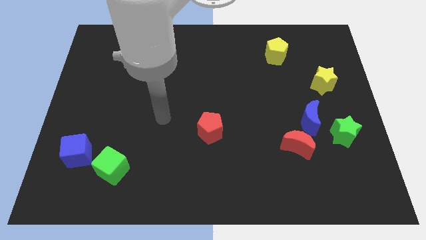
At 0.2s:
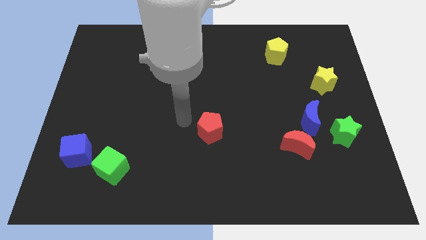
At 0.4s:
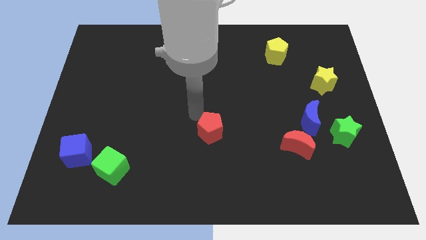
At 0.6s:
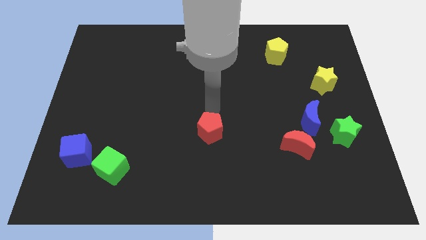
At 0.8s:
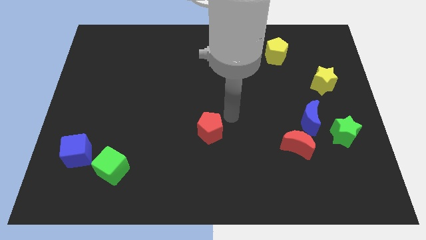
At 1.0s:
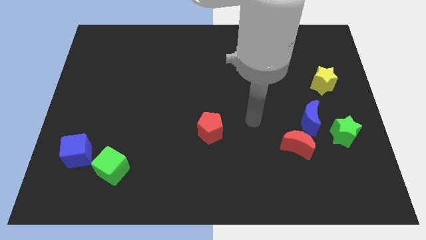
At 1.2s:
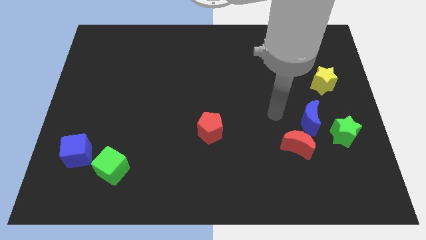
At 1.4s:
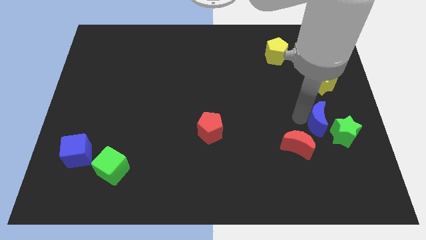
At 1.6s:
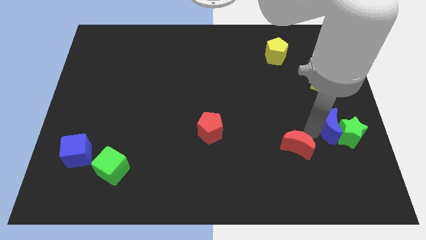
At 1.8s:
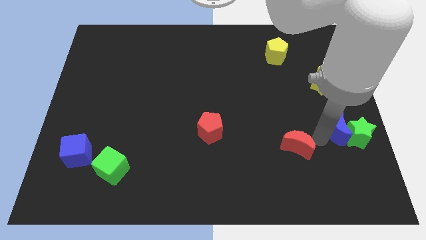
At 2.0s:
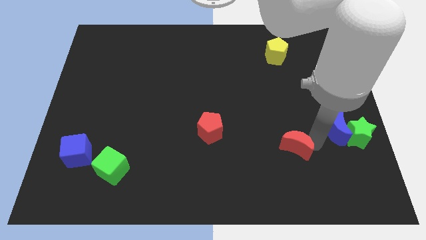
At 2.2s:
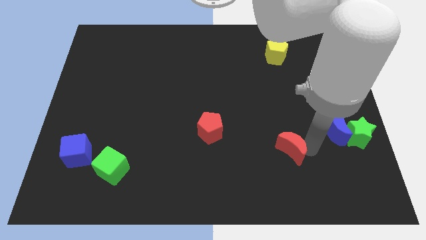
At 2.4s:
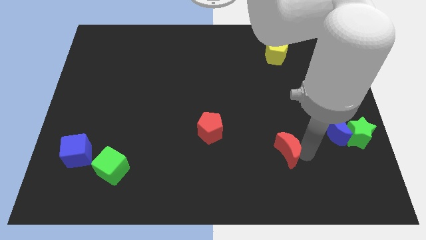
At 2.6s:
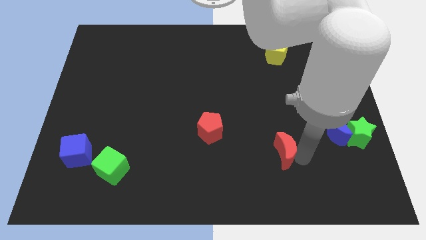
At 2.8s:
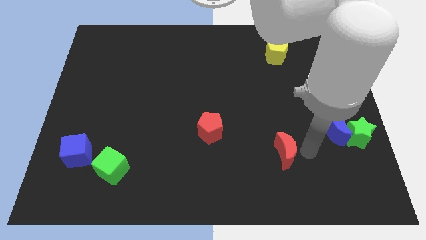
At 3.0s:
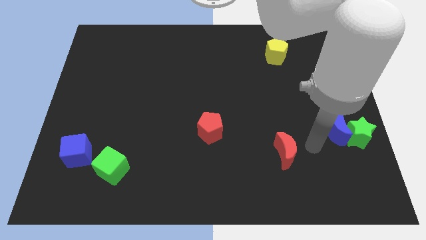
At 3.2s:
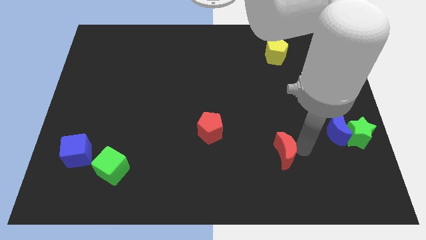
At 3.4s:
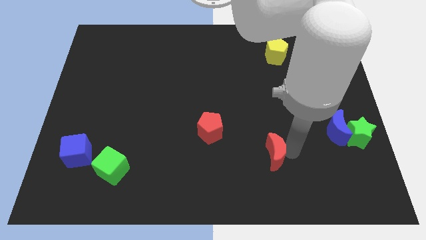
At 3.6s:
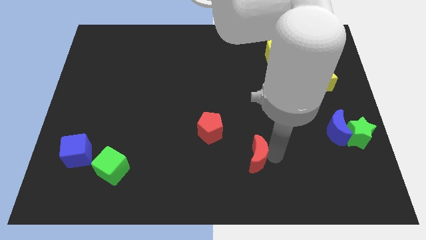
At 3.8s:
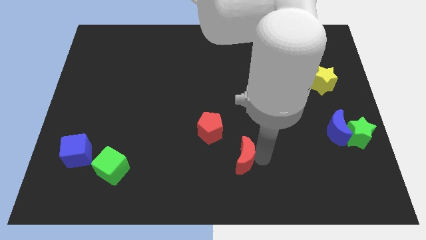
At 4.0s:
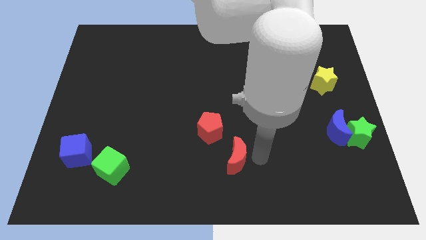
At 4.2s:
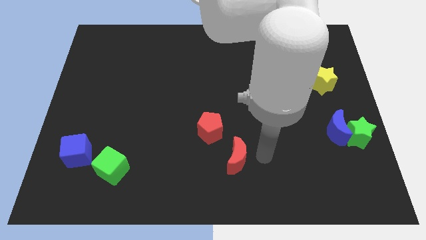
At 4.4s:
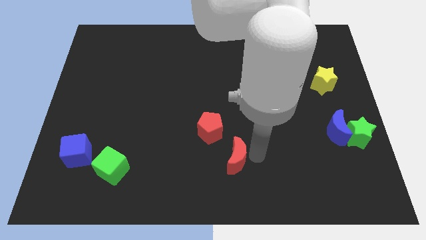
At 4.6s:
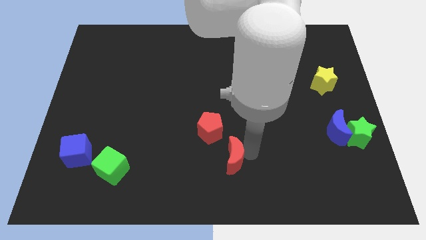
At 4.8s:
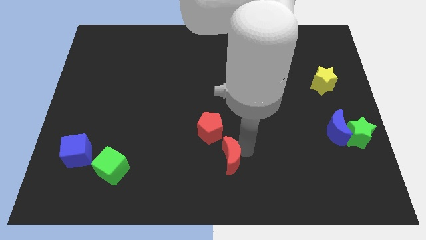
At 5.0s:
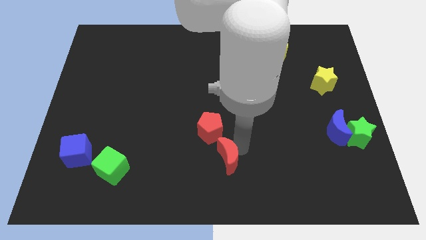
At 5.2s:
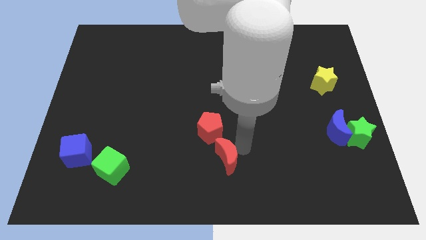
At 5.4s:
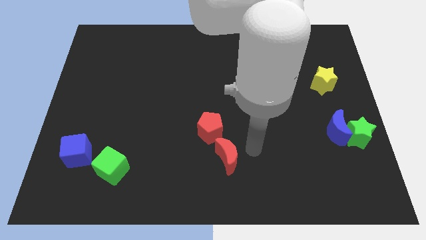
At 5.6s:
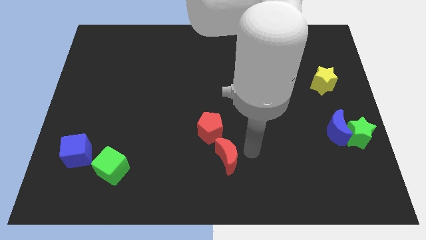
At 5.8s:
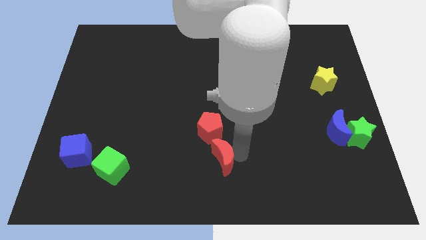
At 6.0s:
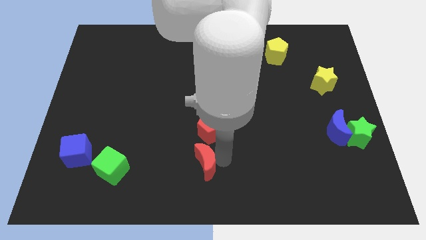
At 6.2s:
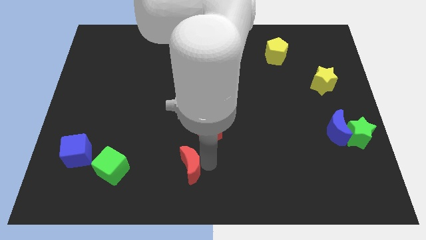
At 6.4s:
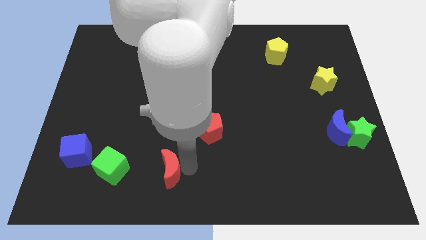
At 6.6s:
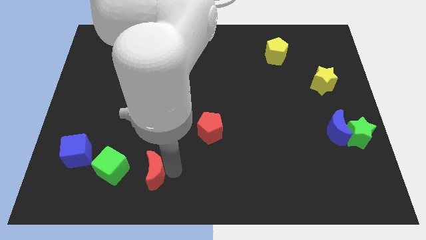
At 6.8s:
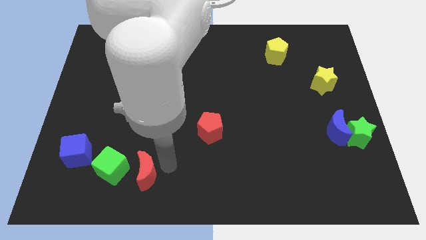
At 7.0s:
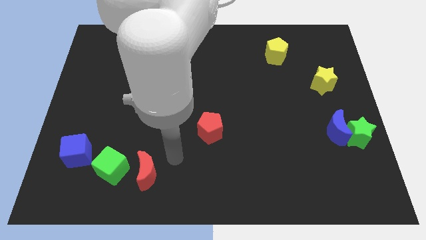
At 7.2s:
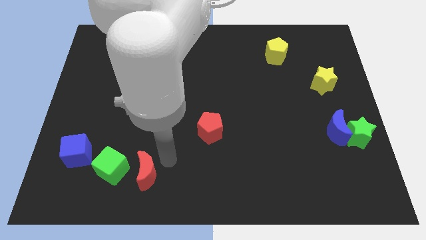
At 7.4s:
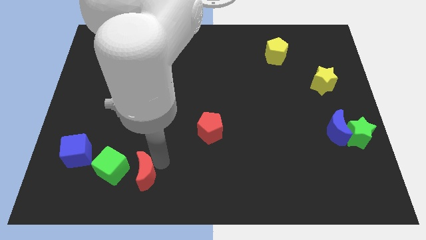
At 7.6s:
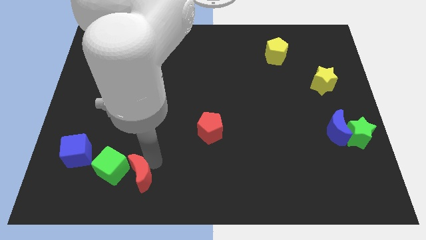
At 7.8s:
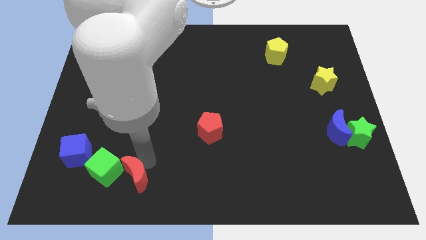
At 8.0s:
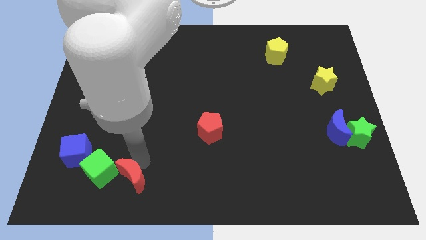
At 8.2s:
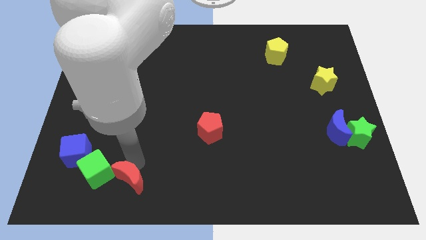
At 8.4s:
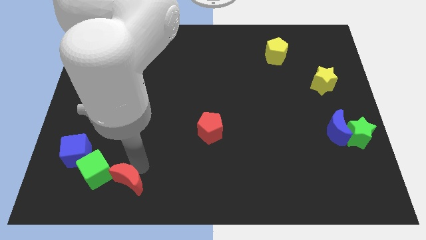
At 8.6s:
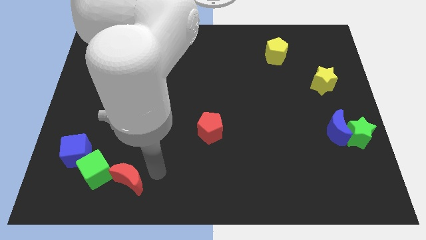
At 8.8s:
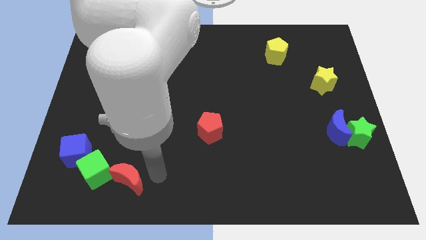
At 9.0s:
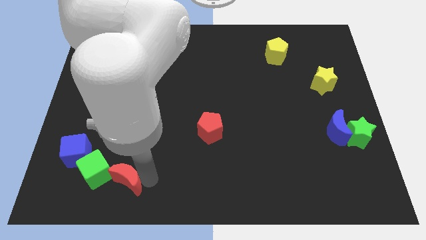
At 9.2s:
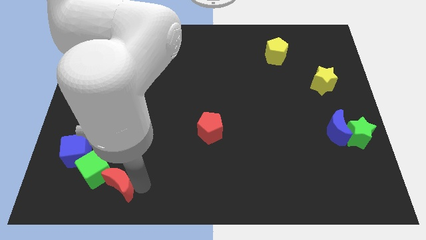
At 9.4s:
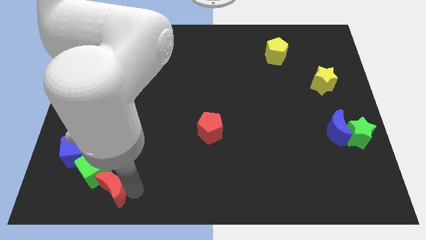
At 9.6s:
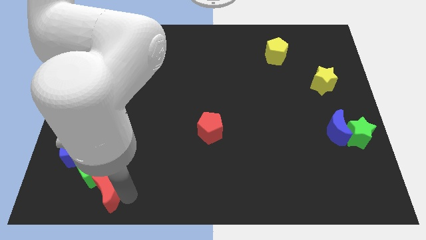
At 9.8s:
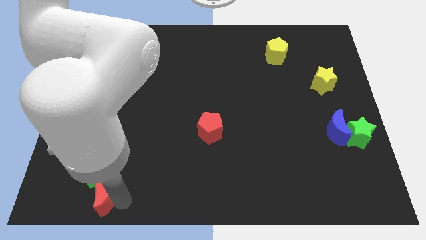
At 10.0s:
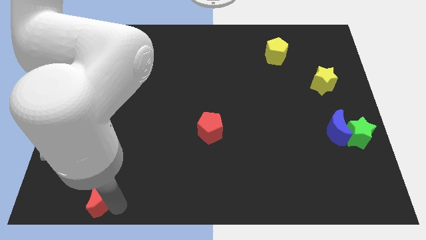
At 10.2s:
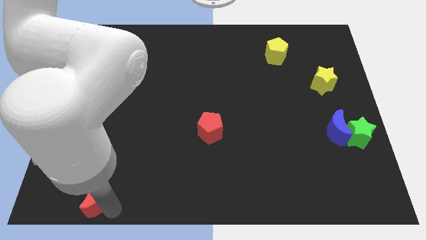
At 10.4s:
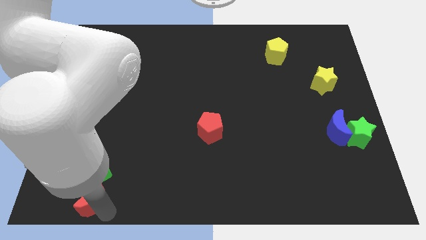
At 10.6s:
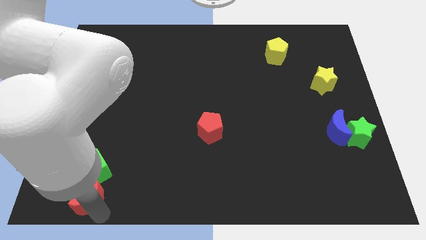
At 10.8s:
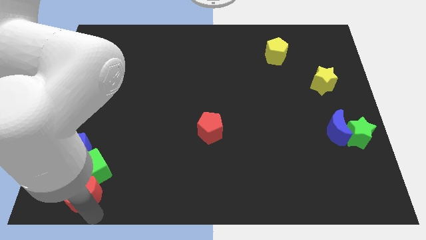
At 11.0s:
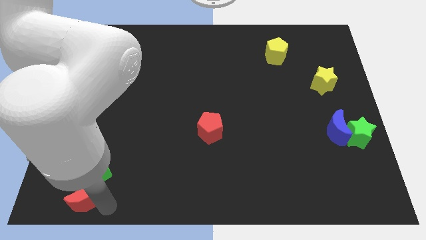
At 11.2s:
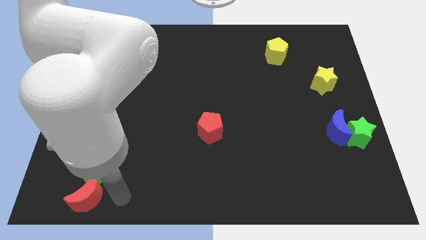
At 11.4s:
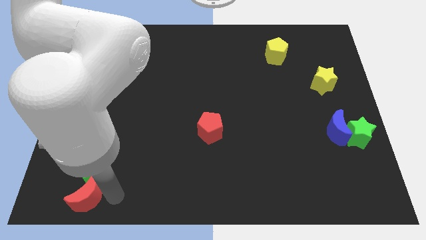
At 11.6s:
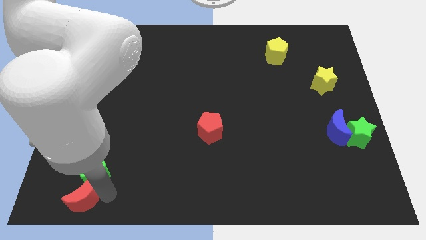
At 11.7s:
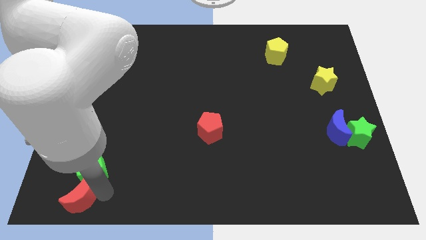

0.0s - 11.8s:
push the red moon to the bottom left corner

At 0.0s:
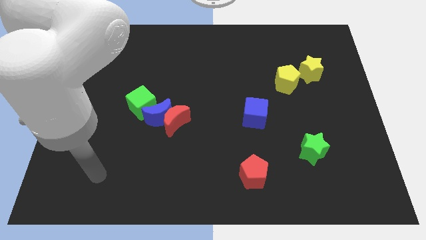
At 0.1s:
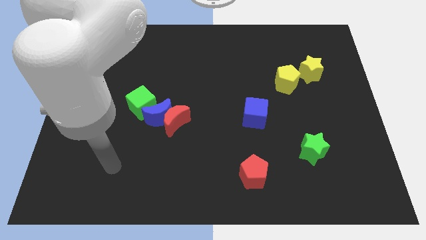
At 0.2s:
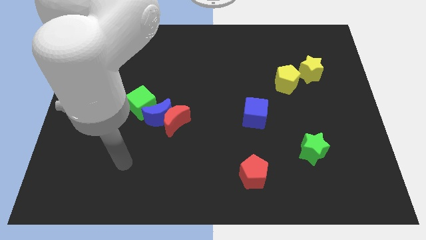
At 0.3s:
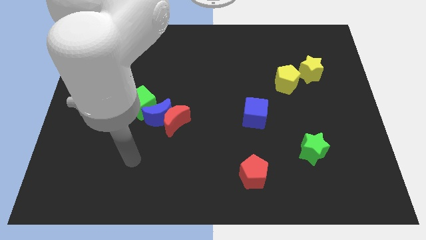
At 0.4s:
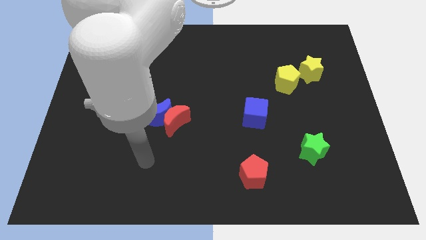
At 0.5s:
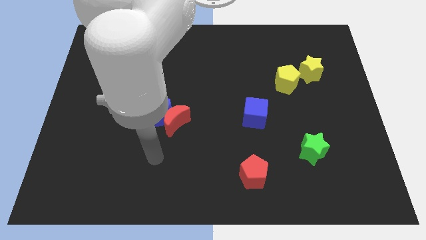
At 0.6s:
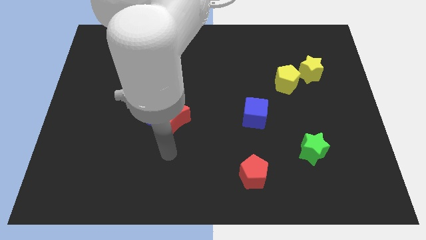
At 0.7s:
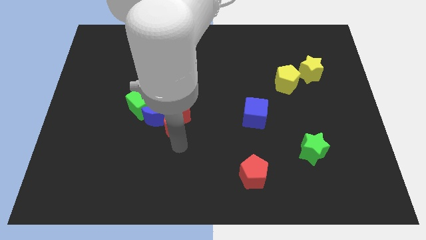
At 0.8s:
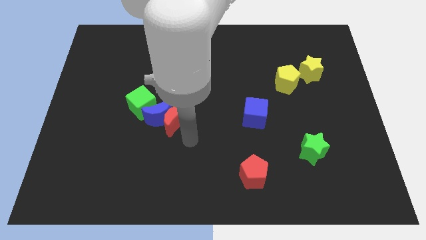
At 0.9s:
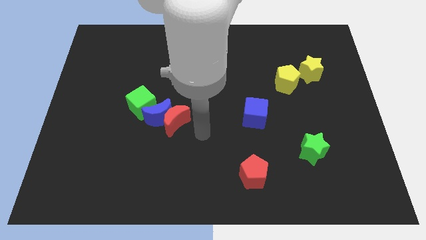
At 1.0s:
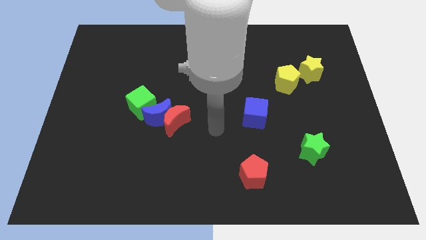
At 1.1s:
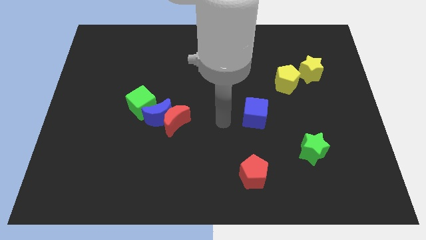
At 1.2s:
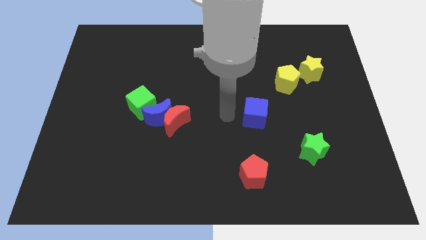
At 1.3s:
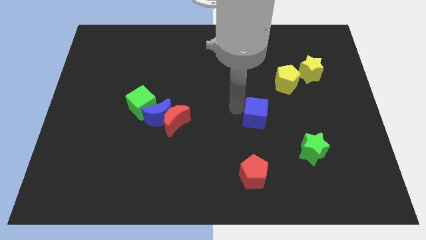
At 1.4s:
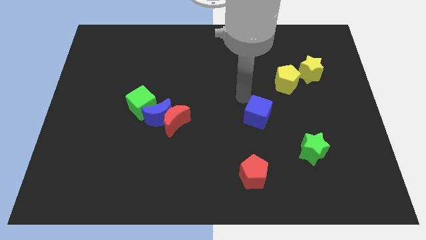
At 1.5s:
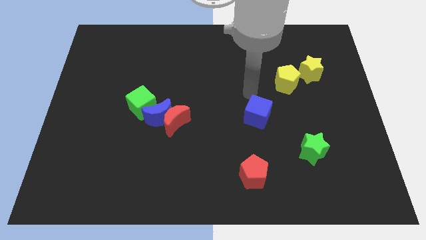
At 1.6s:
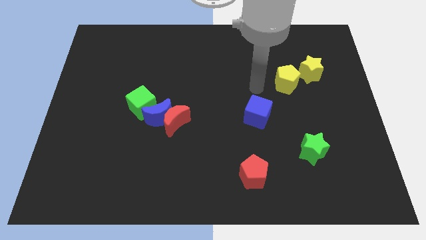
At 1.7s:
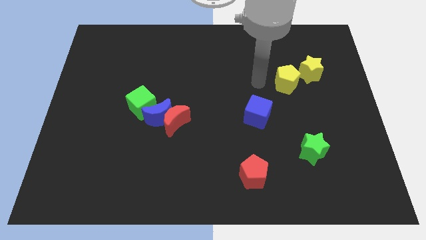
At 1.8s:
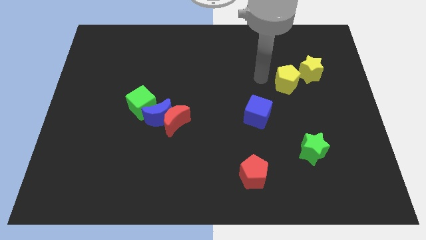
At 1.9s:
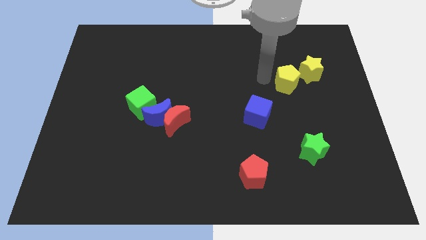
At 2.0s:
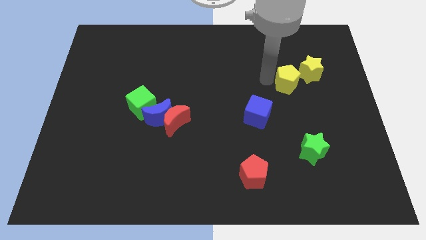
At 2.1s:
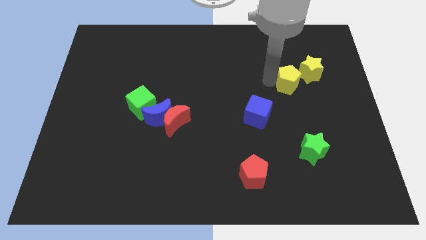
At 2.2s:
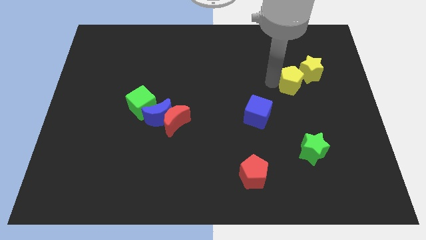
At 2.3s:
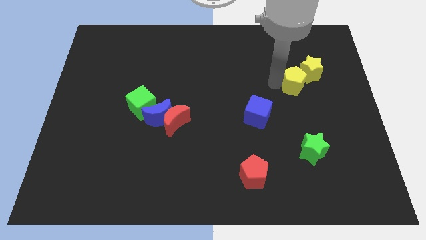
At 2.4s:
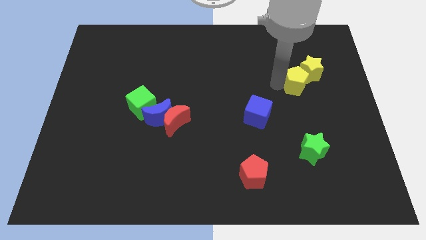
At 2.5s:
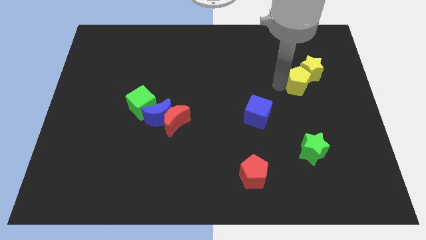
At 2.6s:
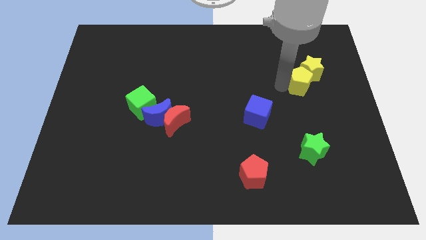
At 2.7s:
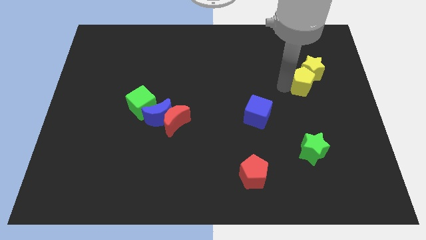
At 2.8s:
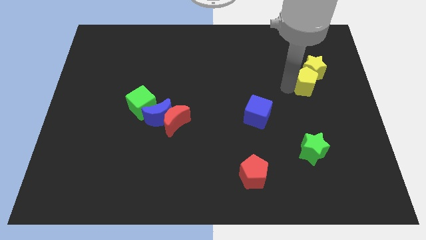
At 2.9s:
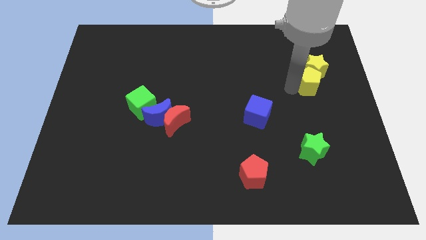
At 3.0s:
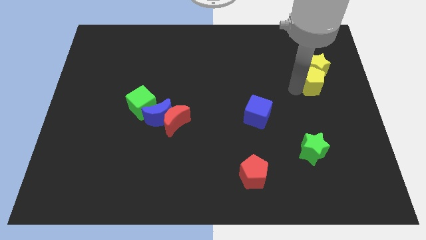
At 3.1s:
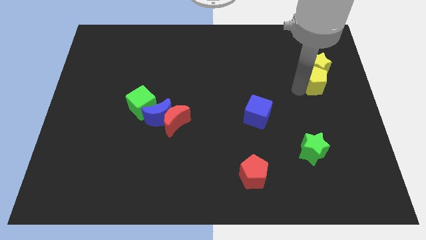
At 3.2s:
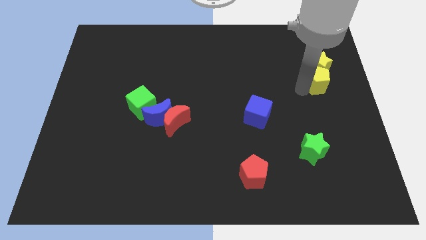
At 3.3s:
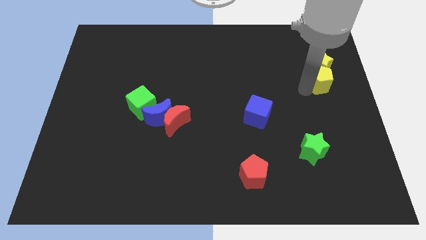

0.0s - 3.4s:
put the yellow pentagon to the right side of the board
